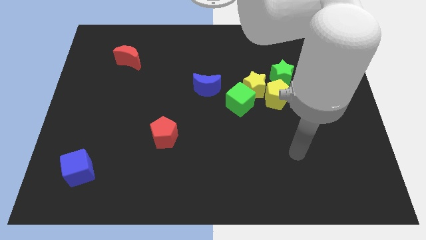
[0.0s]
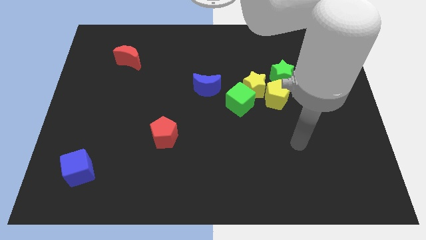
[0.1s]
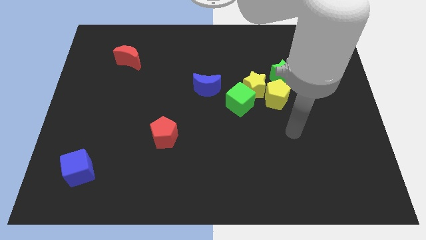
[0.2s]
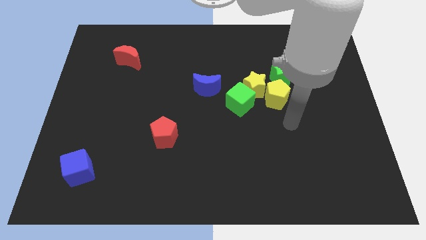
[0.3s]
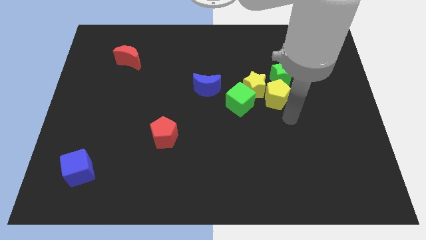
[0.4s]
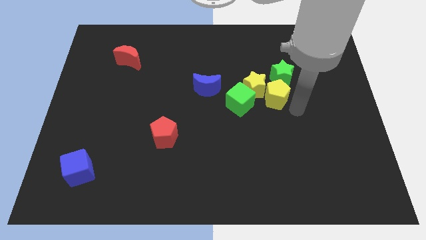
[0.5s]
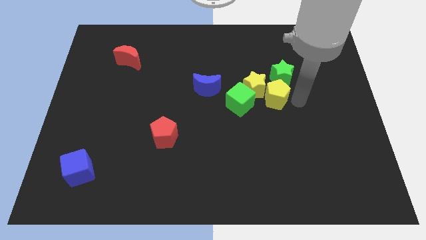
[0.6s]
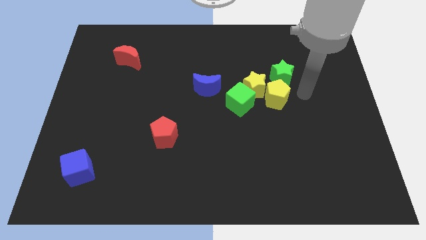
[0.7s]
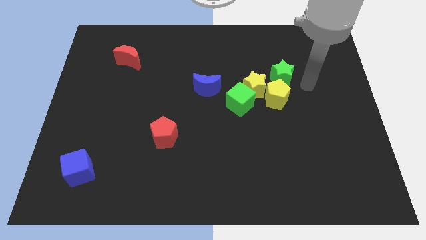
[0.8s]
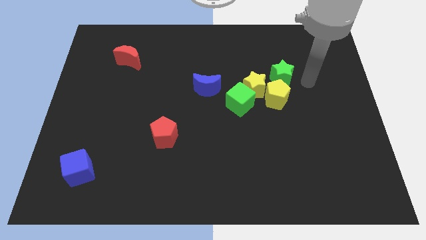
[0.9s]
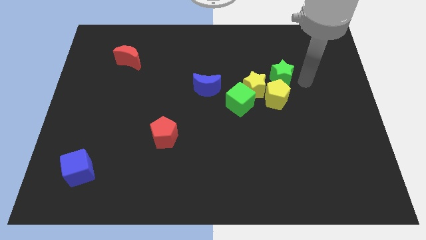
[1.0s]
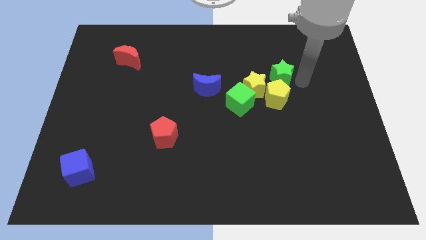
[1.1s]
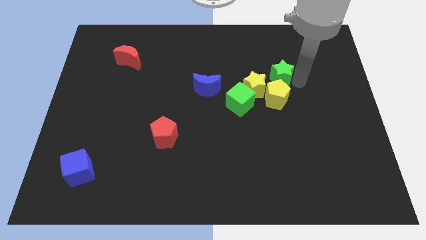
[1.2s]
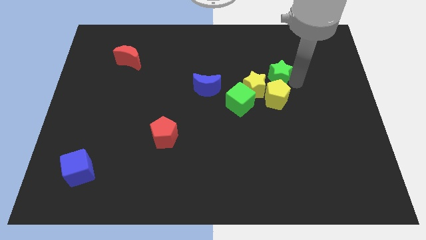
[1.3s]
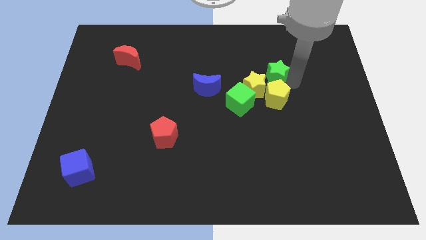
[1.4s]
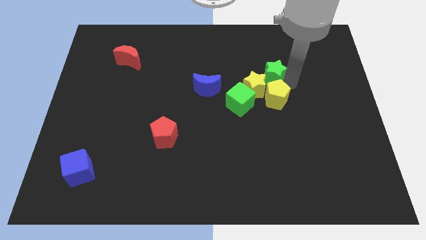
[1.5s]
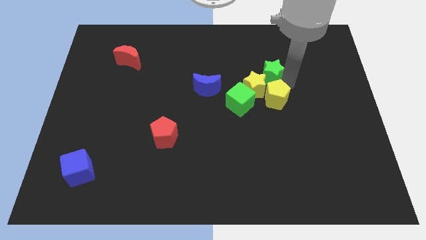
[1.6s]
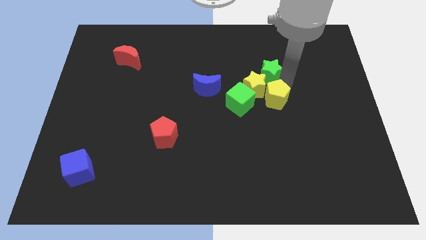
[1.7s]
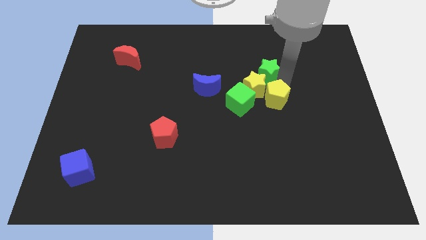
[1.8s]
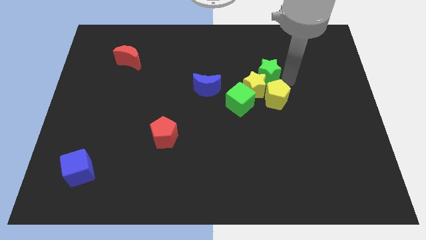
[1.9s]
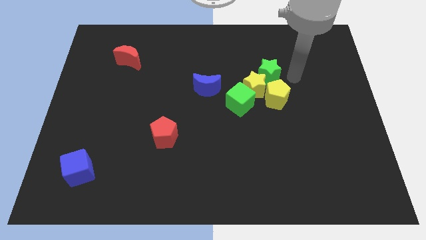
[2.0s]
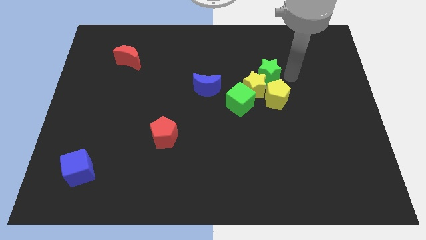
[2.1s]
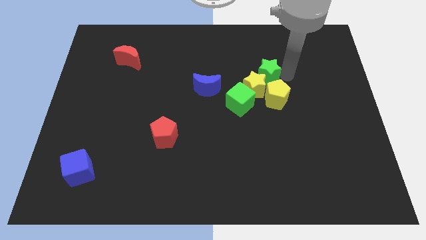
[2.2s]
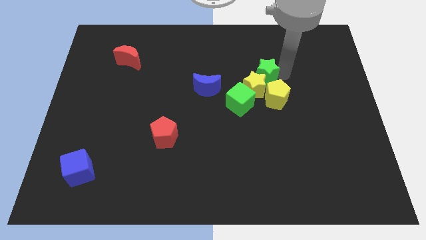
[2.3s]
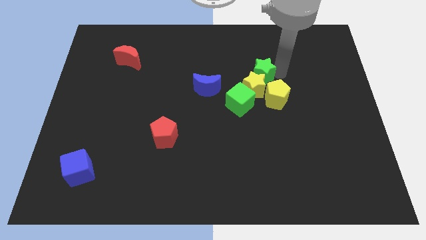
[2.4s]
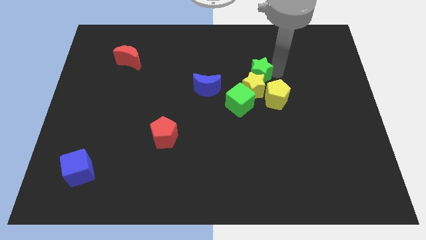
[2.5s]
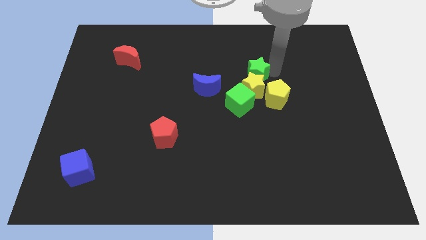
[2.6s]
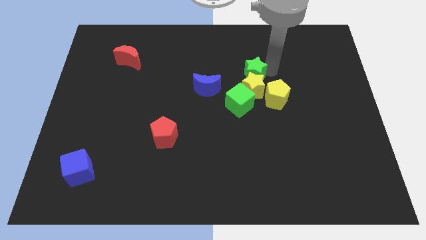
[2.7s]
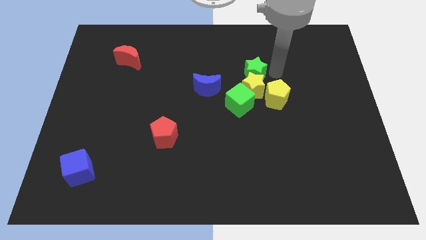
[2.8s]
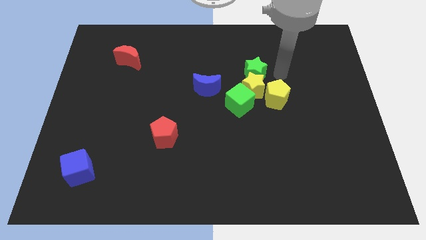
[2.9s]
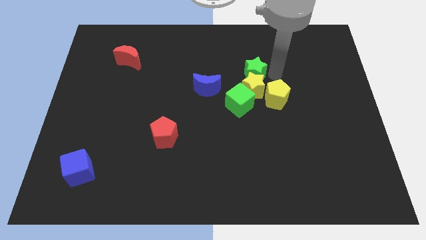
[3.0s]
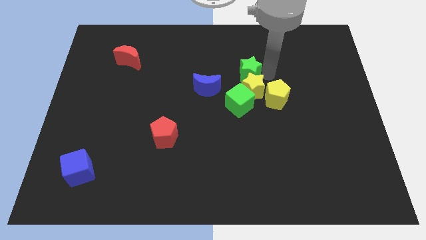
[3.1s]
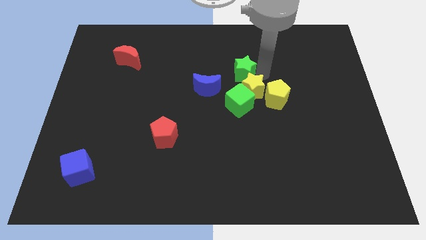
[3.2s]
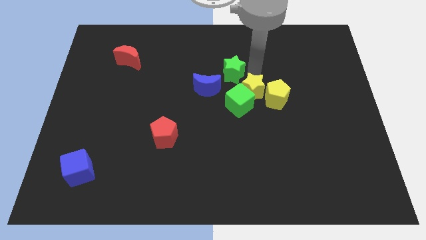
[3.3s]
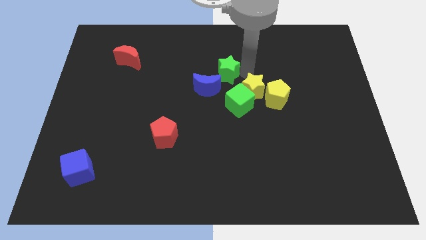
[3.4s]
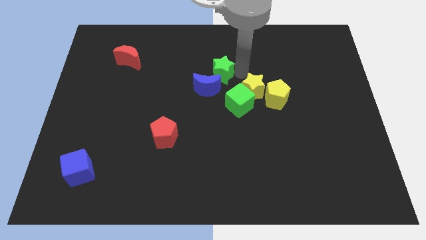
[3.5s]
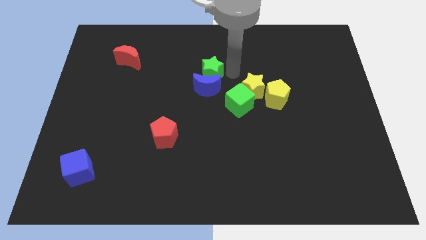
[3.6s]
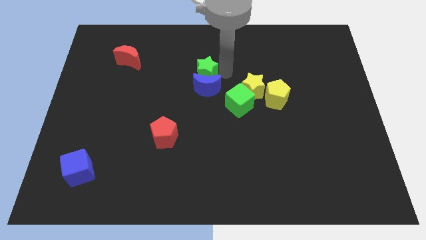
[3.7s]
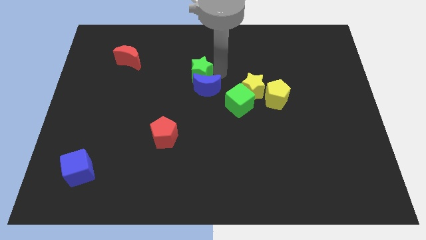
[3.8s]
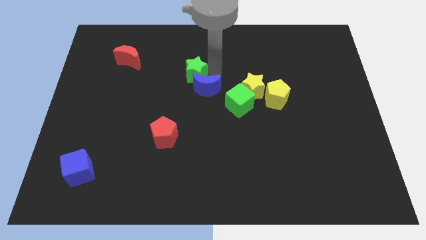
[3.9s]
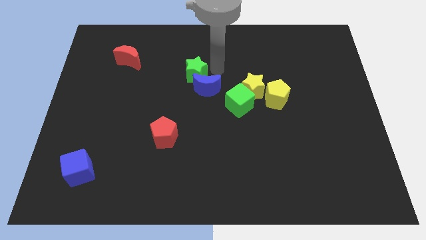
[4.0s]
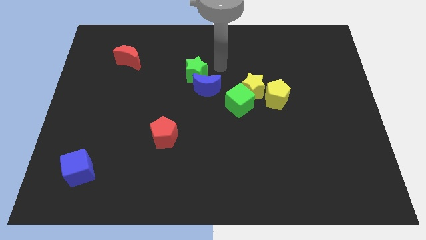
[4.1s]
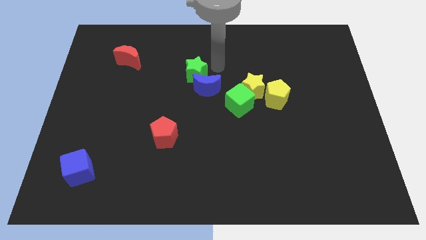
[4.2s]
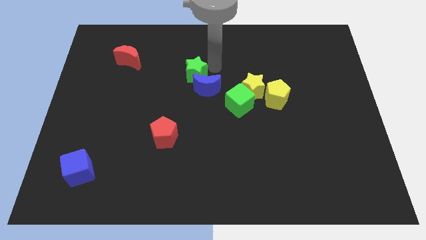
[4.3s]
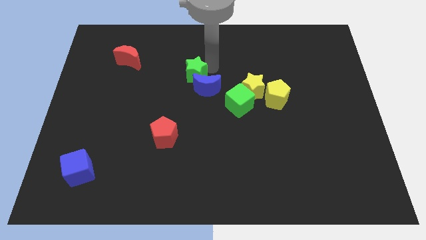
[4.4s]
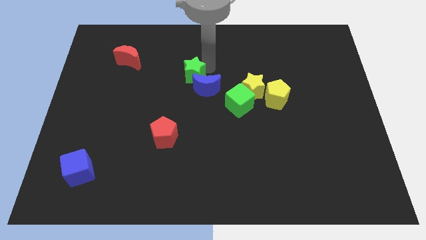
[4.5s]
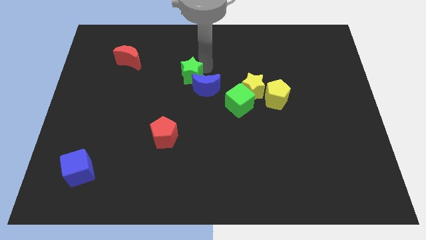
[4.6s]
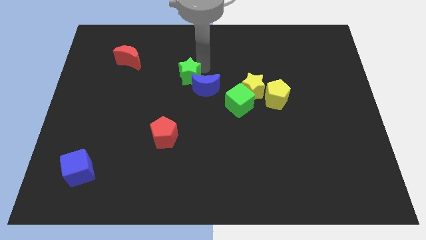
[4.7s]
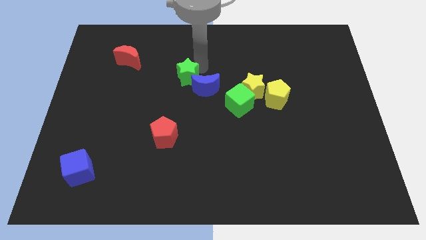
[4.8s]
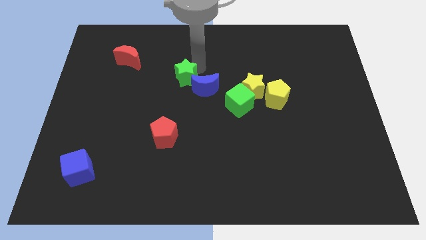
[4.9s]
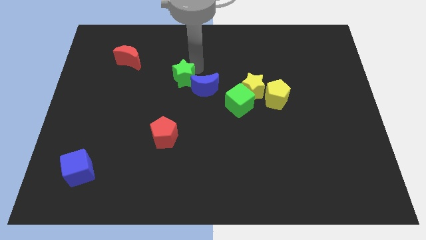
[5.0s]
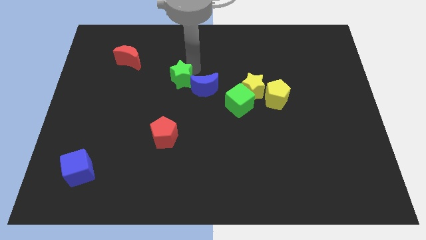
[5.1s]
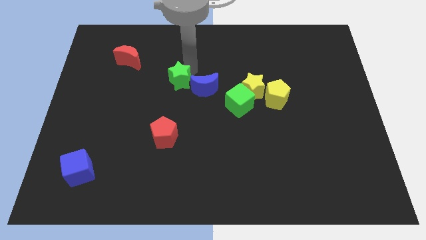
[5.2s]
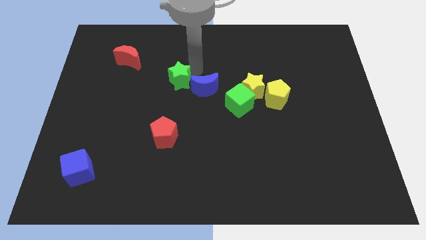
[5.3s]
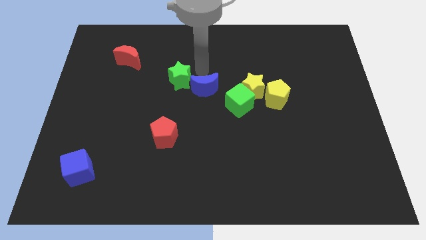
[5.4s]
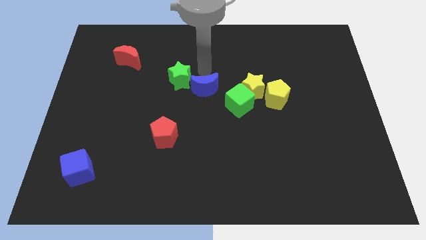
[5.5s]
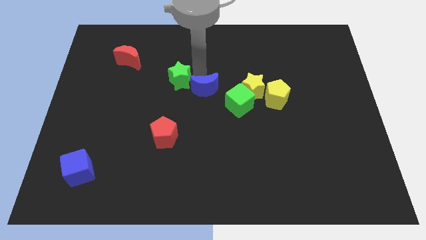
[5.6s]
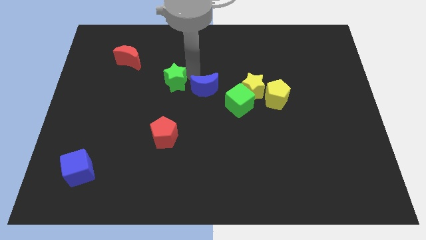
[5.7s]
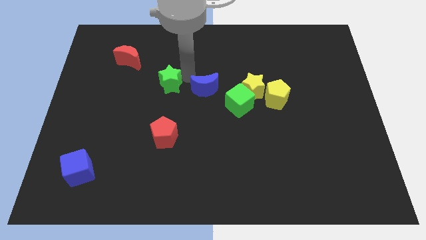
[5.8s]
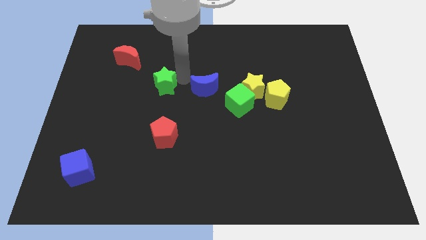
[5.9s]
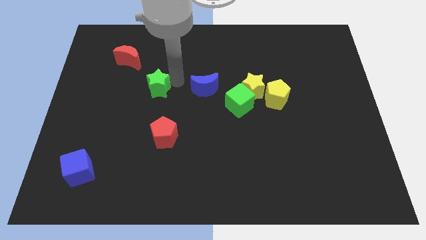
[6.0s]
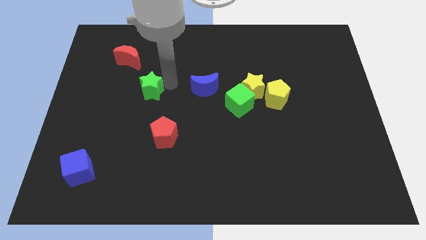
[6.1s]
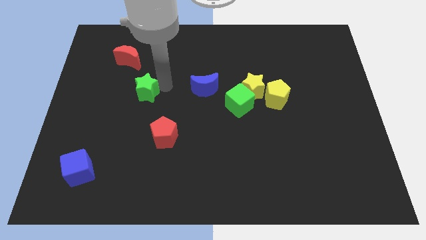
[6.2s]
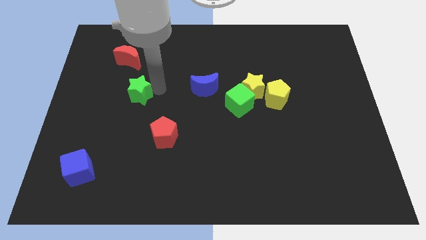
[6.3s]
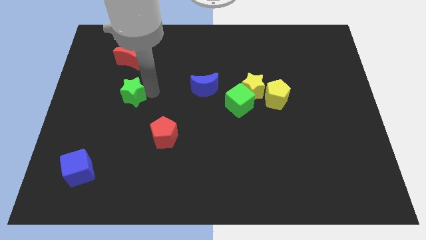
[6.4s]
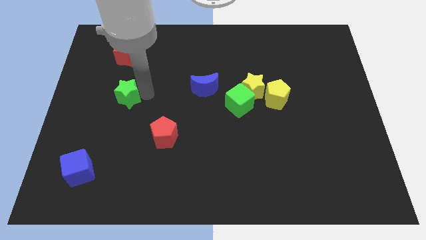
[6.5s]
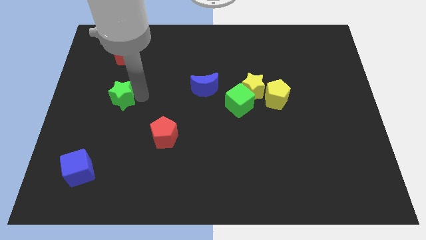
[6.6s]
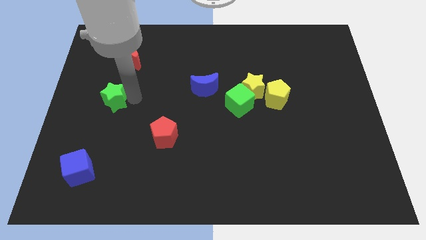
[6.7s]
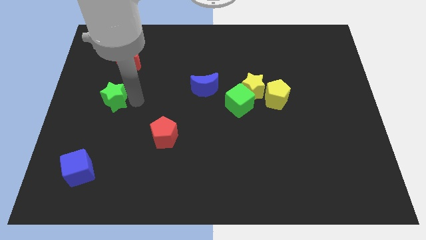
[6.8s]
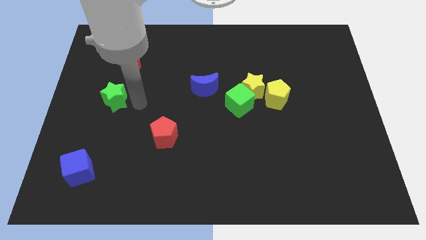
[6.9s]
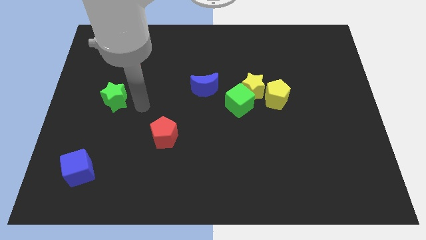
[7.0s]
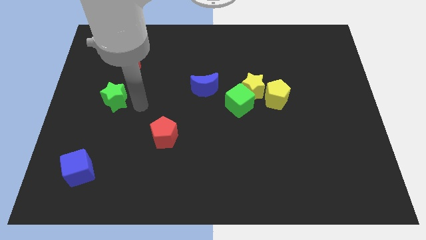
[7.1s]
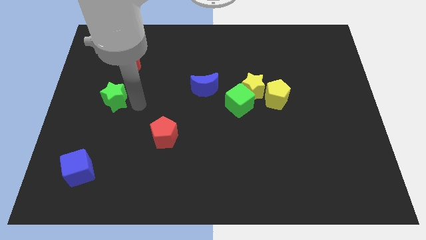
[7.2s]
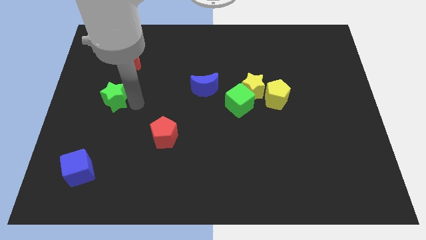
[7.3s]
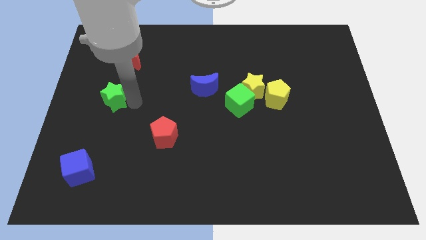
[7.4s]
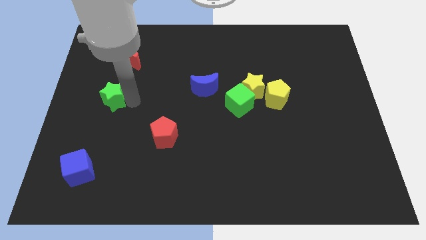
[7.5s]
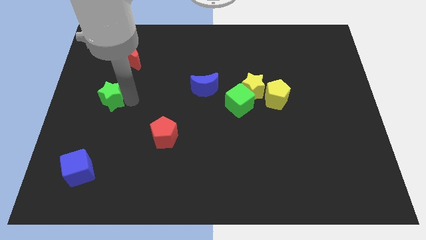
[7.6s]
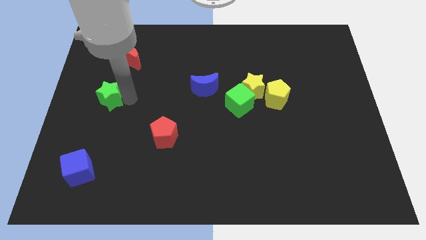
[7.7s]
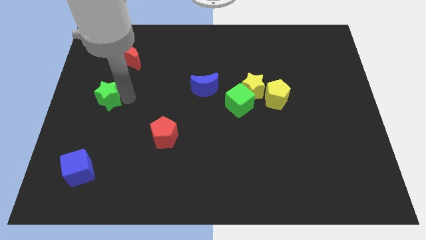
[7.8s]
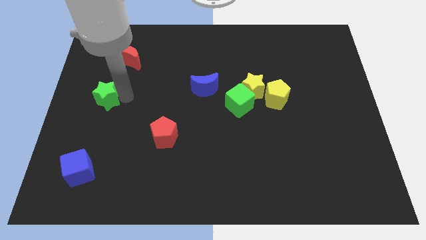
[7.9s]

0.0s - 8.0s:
push the green star to the left side of the board
